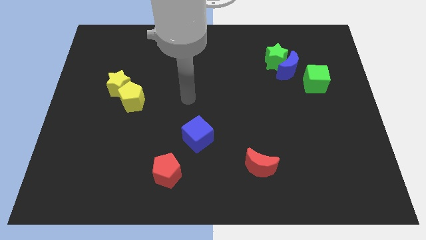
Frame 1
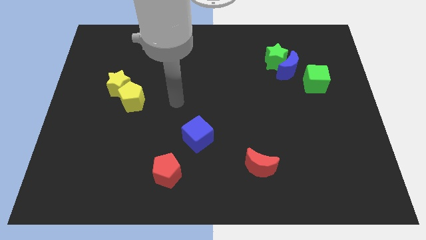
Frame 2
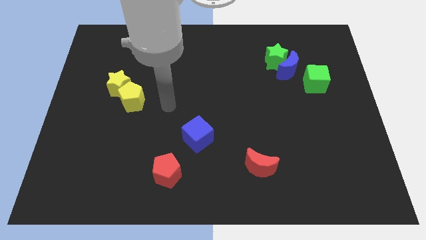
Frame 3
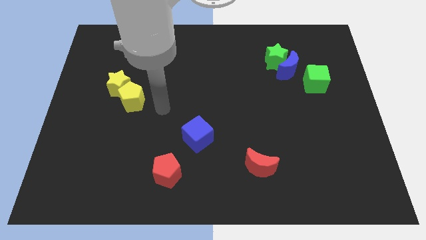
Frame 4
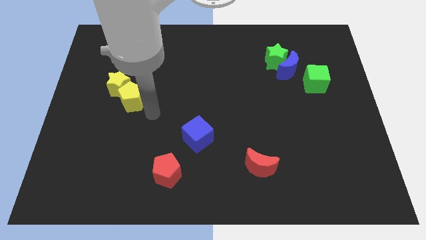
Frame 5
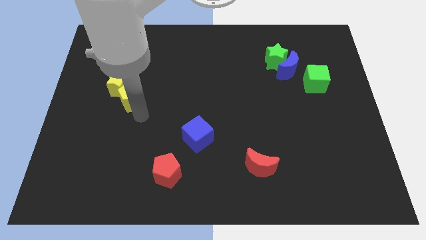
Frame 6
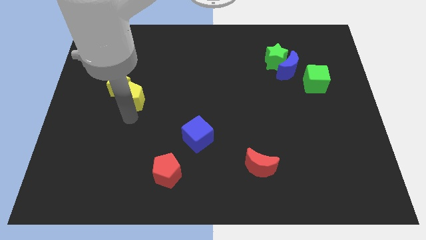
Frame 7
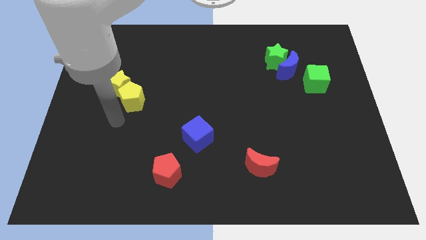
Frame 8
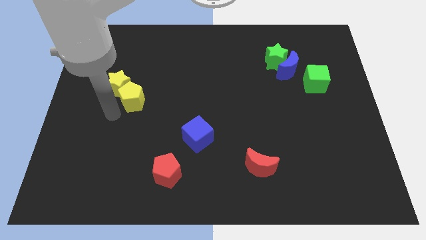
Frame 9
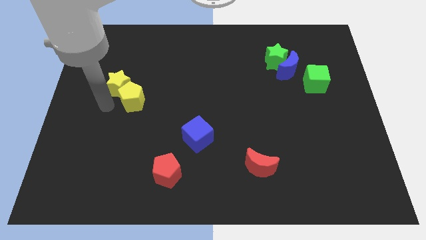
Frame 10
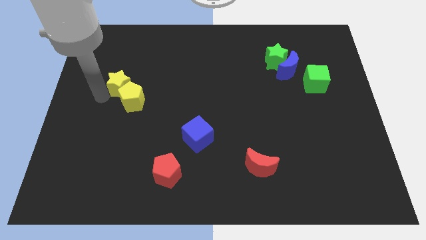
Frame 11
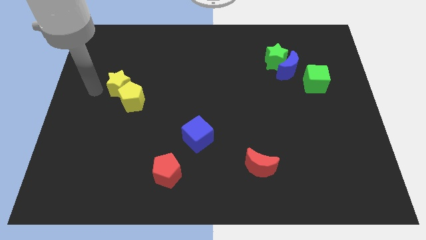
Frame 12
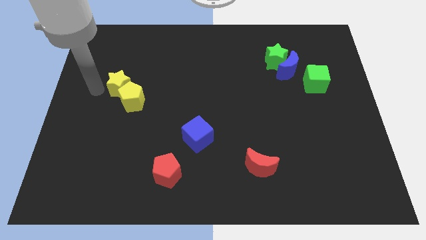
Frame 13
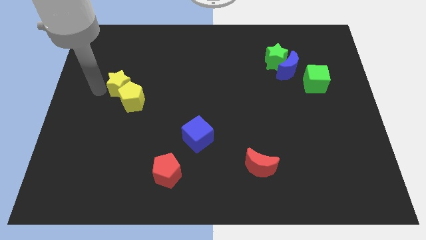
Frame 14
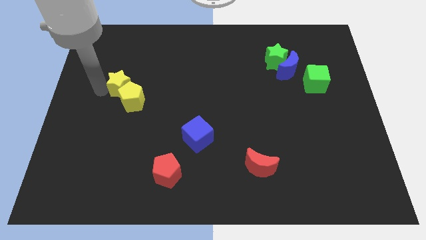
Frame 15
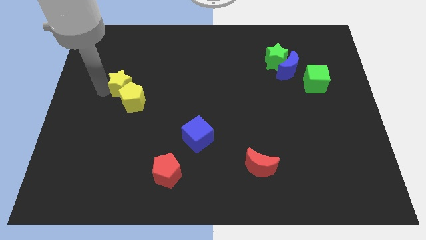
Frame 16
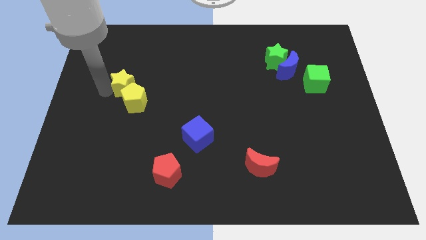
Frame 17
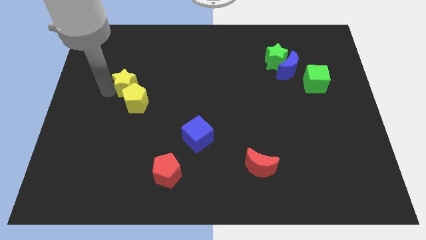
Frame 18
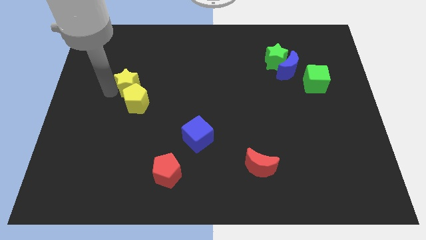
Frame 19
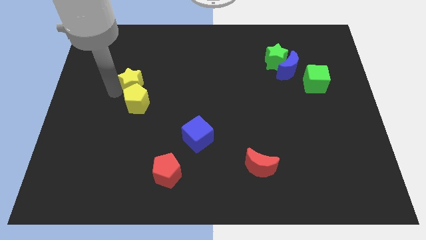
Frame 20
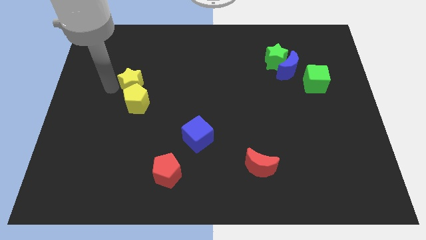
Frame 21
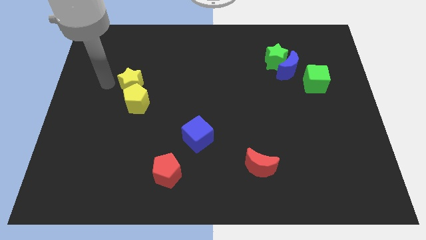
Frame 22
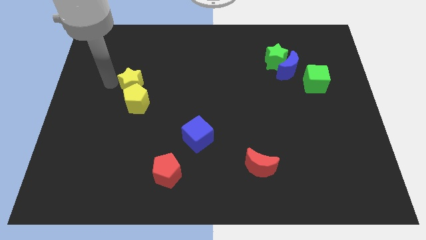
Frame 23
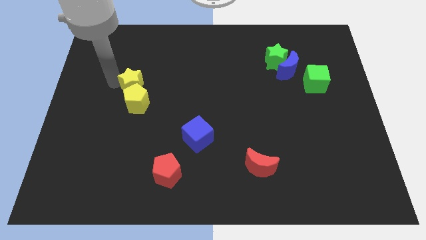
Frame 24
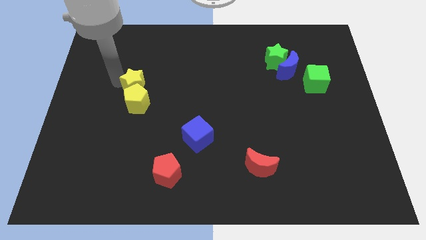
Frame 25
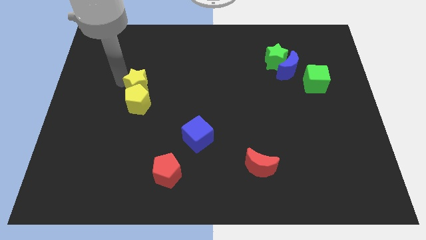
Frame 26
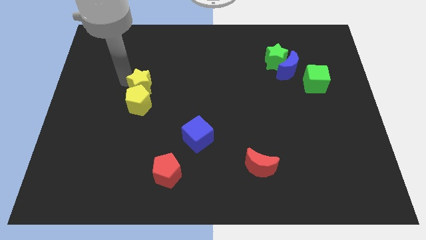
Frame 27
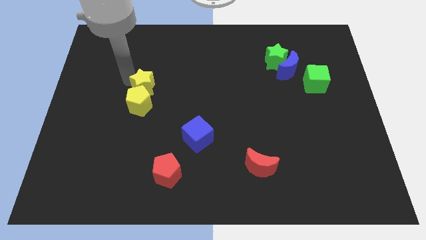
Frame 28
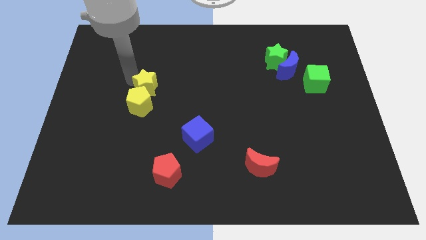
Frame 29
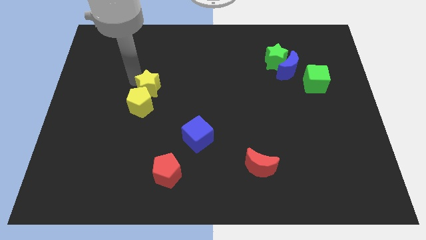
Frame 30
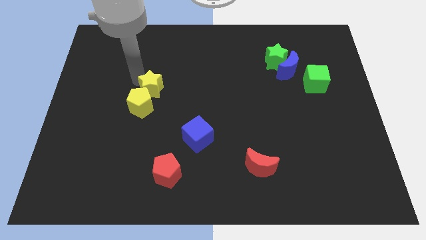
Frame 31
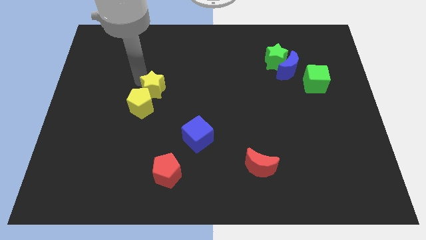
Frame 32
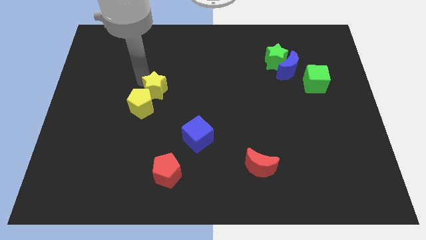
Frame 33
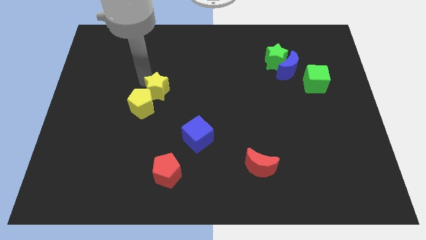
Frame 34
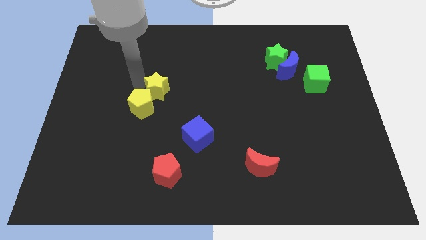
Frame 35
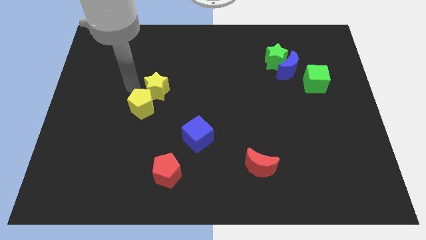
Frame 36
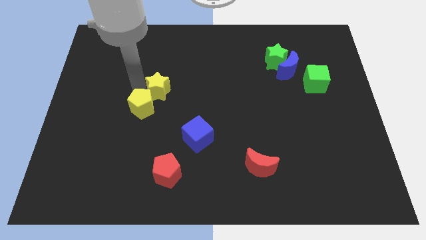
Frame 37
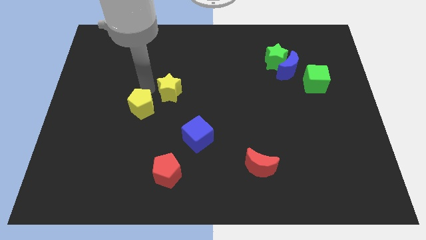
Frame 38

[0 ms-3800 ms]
push the yellow star to the middle

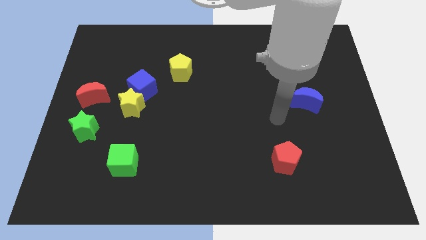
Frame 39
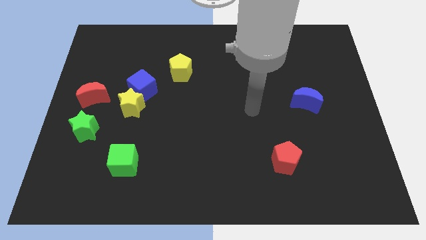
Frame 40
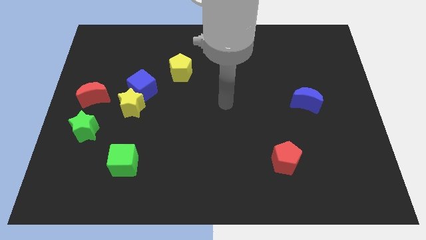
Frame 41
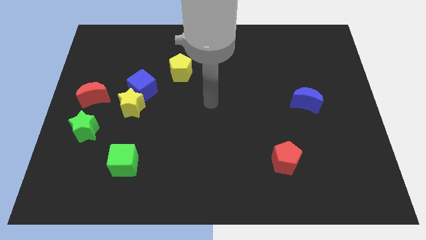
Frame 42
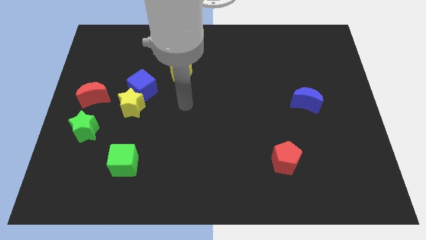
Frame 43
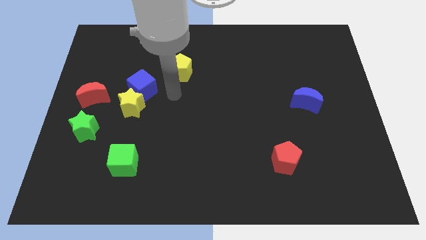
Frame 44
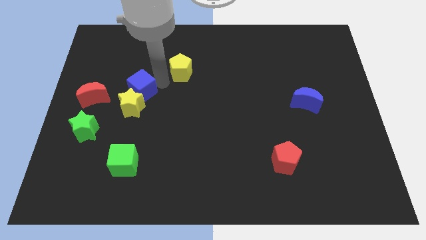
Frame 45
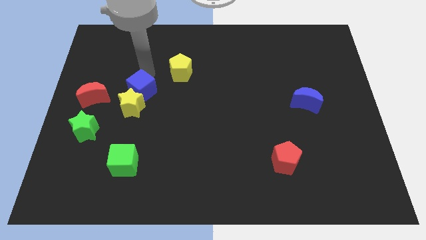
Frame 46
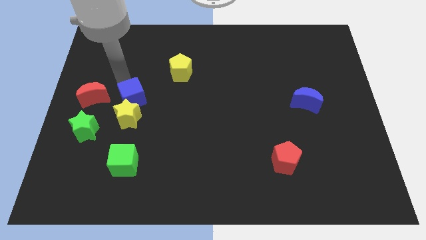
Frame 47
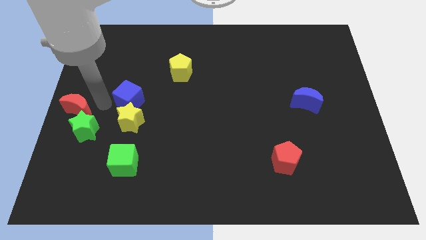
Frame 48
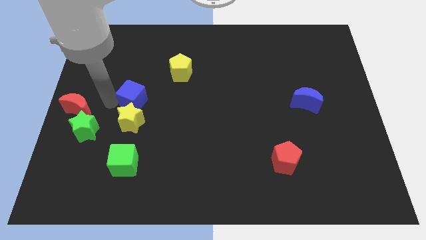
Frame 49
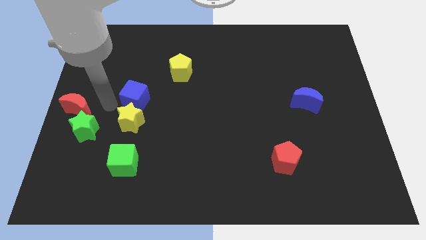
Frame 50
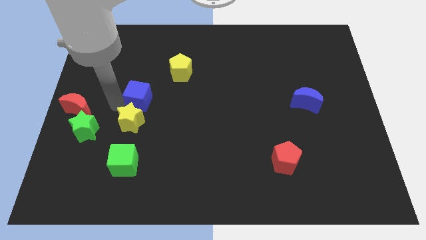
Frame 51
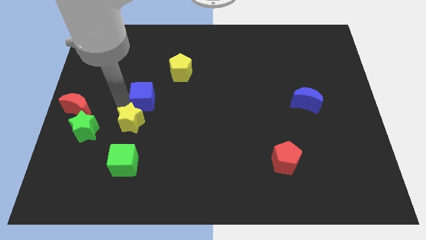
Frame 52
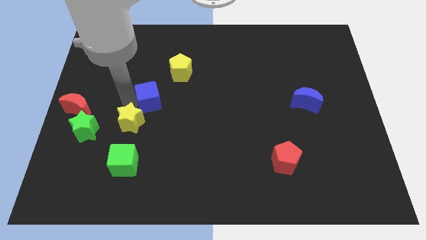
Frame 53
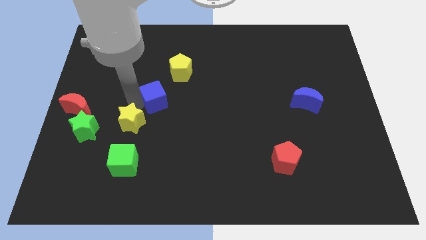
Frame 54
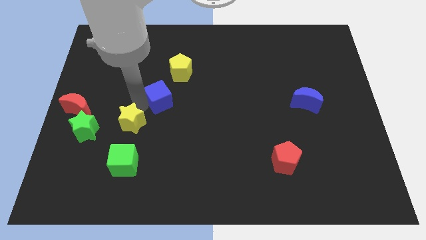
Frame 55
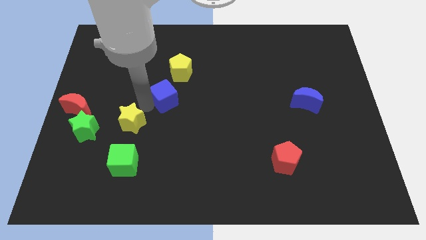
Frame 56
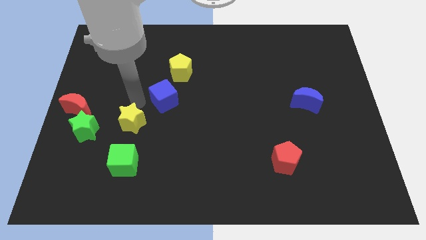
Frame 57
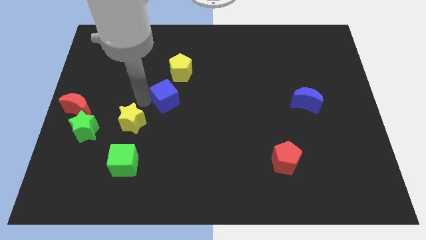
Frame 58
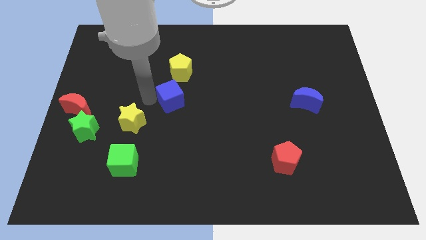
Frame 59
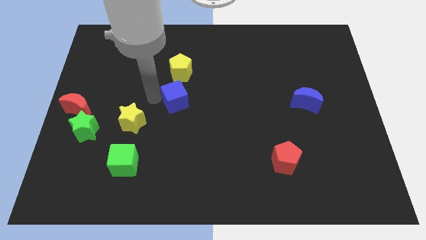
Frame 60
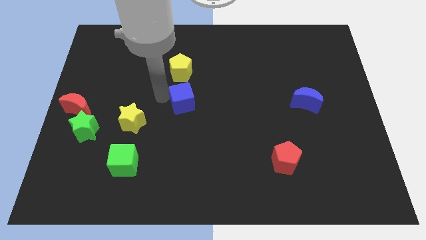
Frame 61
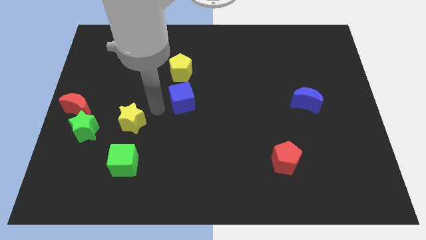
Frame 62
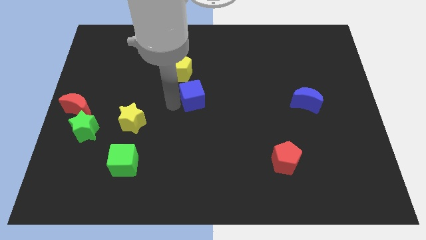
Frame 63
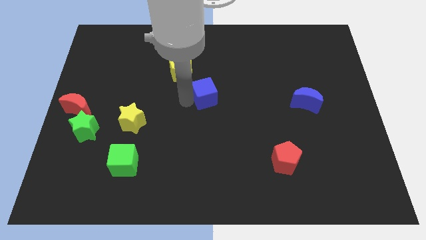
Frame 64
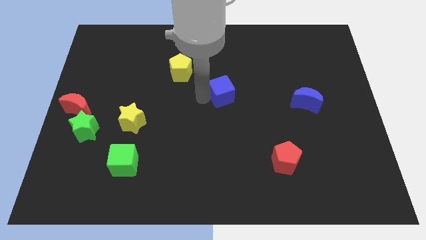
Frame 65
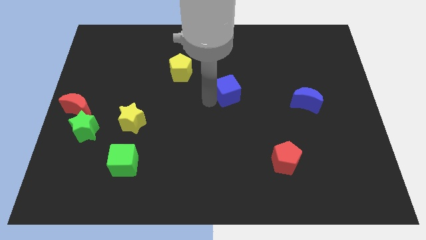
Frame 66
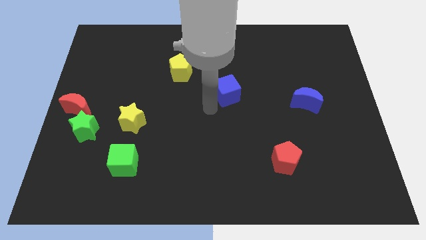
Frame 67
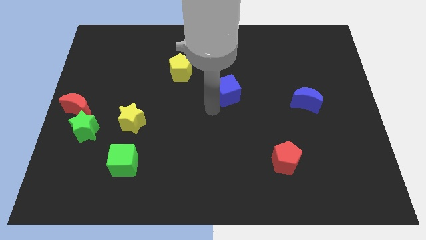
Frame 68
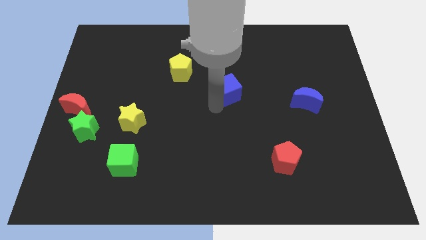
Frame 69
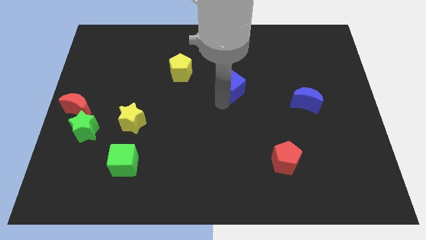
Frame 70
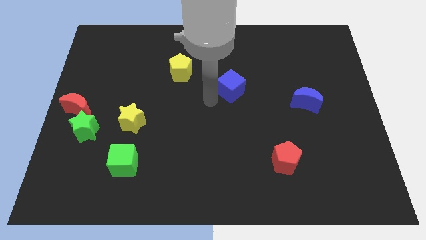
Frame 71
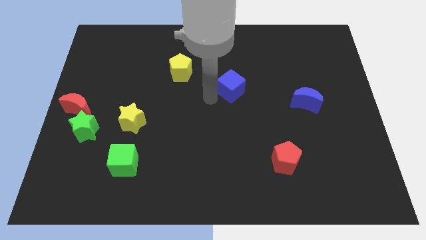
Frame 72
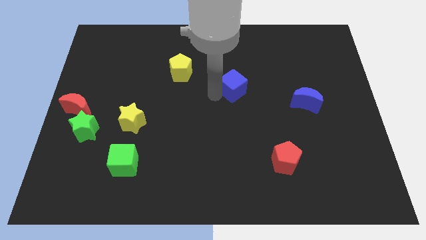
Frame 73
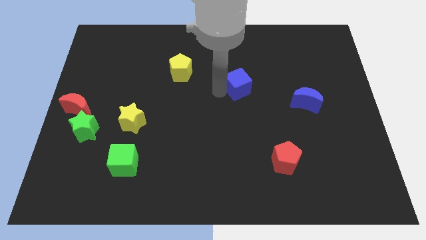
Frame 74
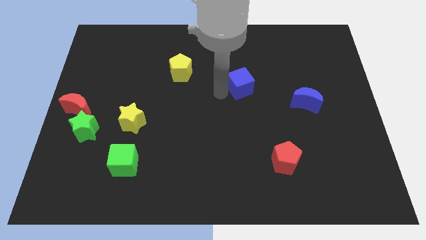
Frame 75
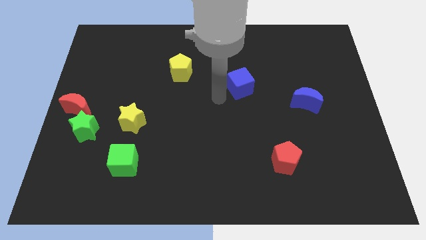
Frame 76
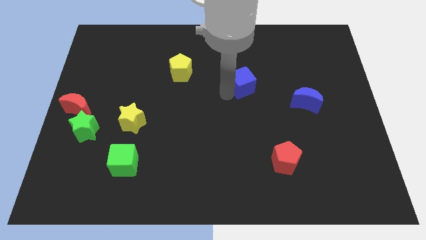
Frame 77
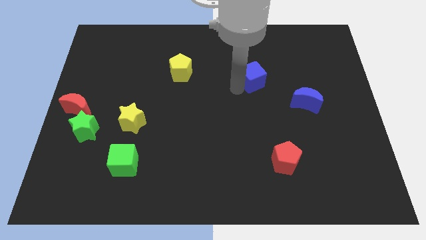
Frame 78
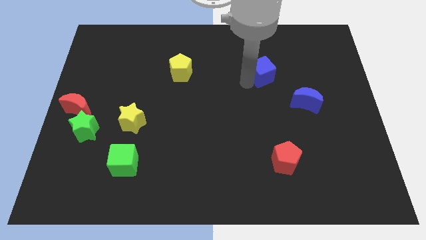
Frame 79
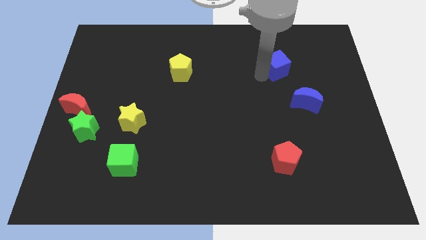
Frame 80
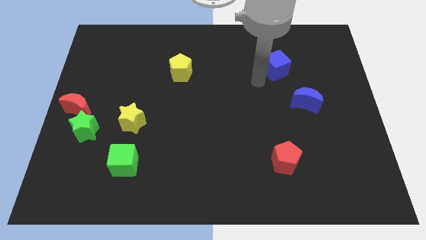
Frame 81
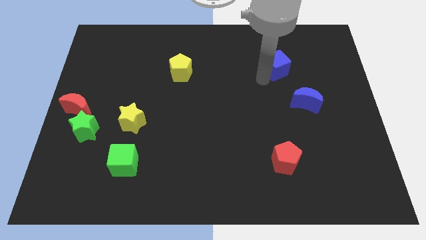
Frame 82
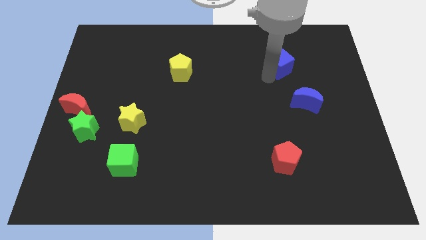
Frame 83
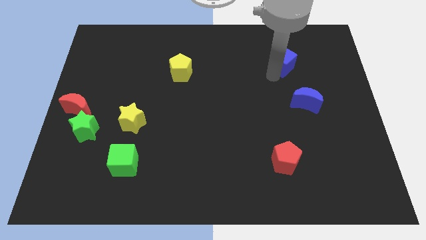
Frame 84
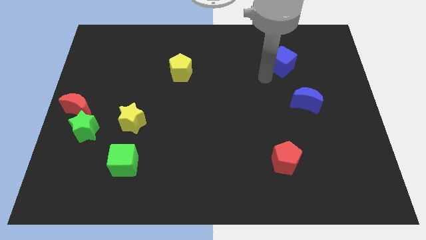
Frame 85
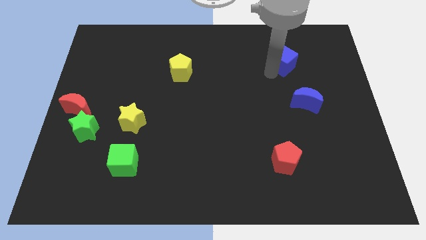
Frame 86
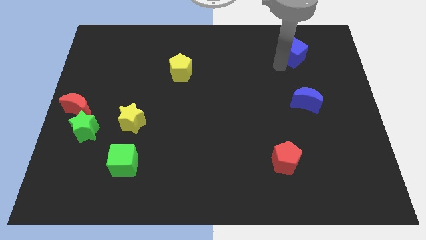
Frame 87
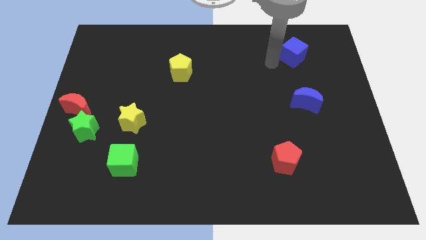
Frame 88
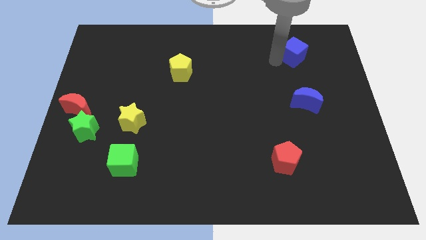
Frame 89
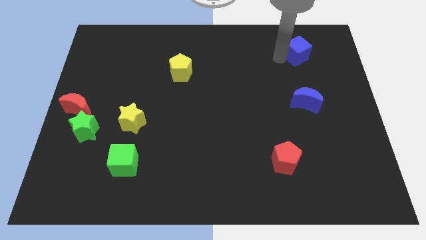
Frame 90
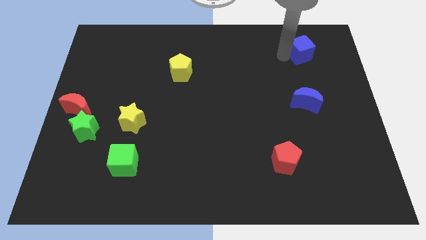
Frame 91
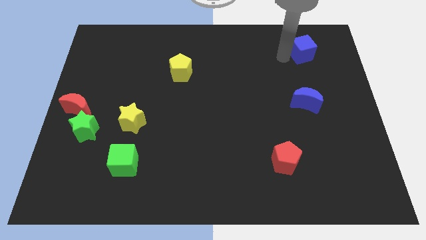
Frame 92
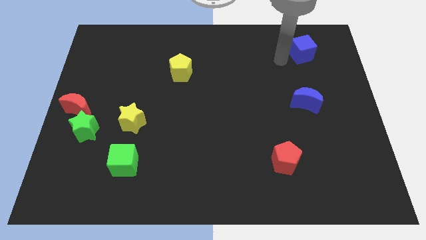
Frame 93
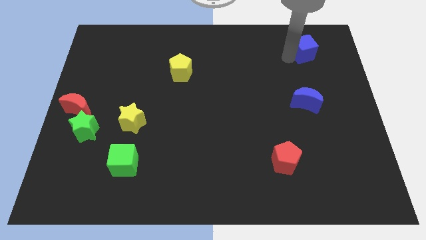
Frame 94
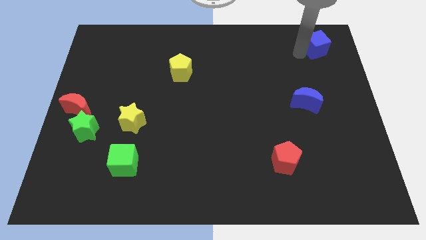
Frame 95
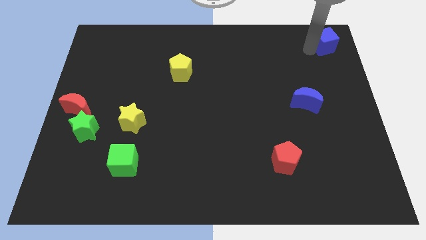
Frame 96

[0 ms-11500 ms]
push the blue cube to the top right
